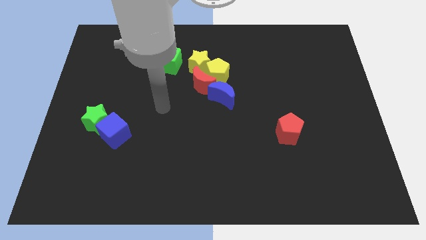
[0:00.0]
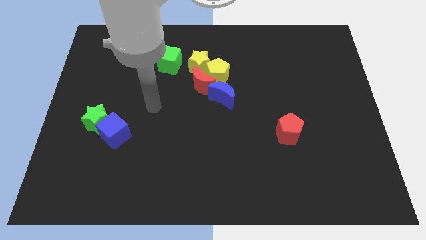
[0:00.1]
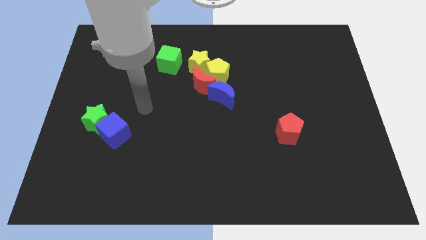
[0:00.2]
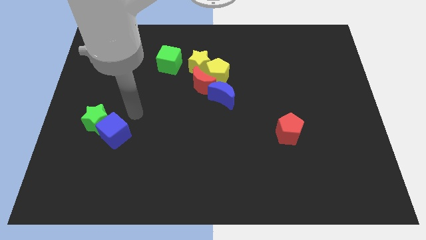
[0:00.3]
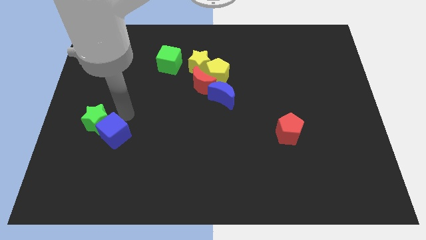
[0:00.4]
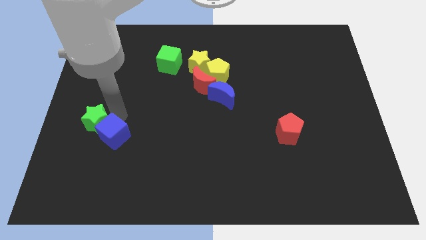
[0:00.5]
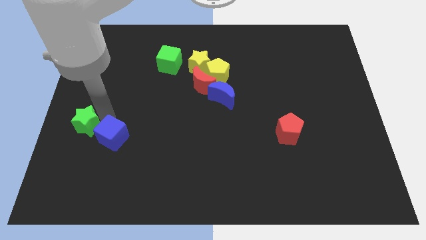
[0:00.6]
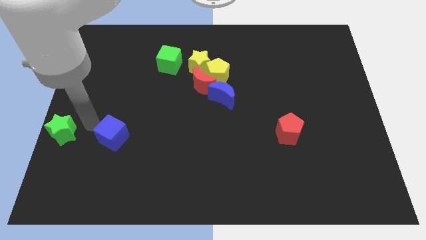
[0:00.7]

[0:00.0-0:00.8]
pull the blue cube apart from the green star

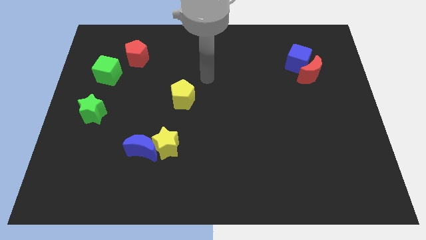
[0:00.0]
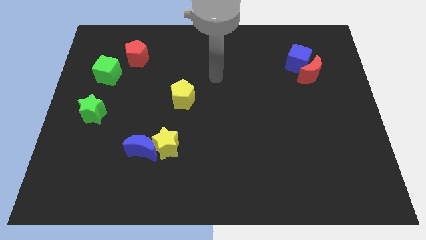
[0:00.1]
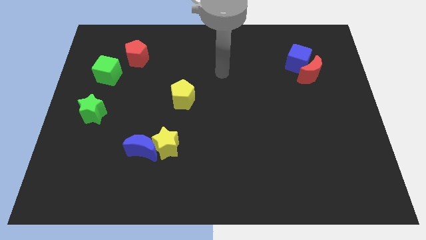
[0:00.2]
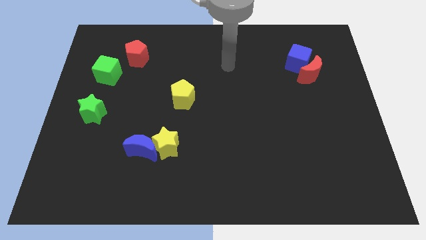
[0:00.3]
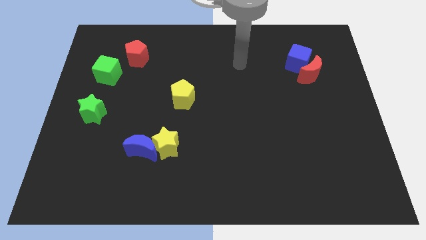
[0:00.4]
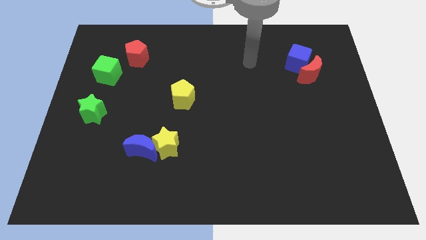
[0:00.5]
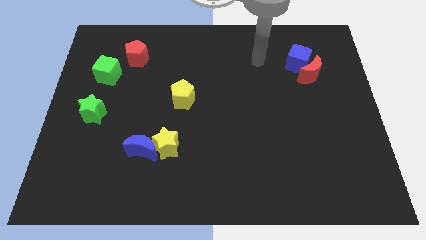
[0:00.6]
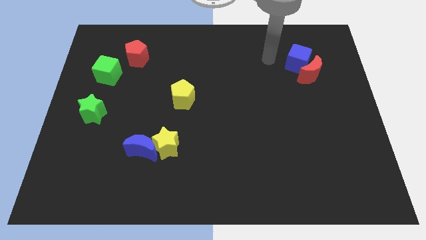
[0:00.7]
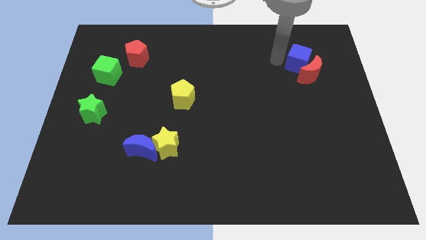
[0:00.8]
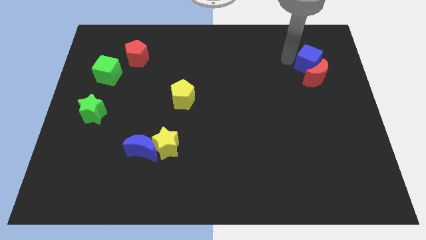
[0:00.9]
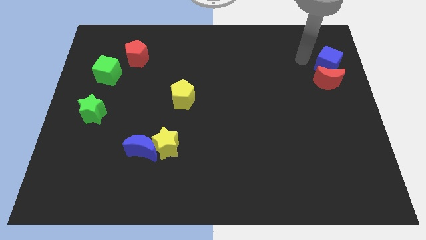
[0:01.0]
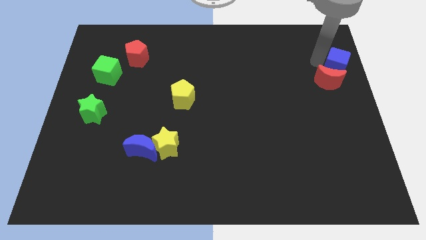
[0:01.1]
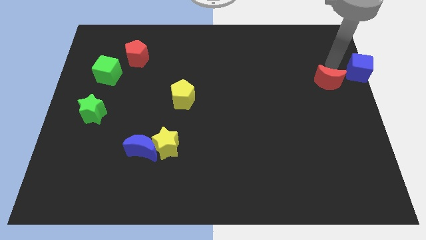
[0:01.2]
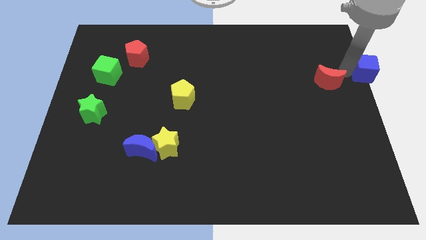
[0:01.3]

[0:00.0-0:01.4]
pull the red moon apart from the blue cube

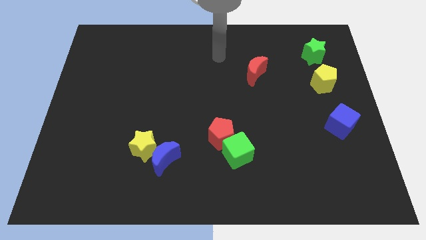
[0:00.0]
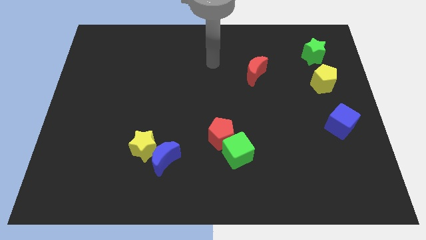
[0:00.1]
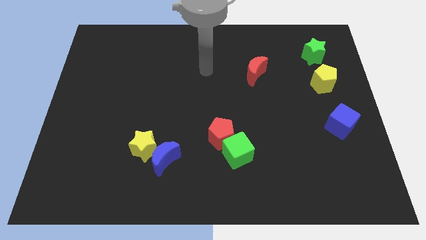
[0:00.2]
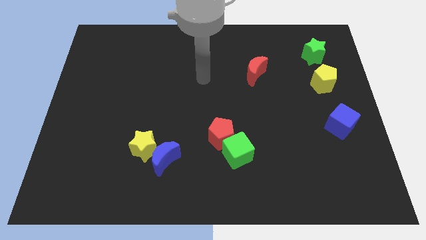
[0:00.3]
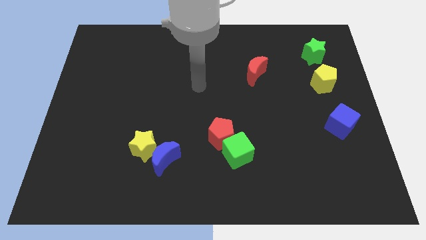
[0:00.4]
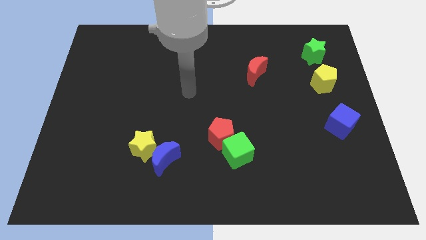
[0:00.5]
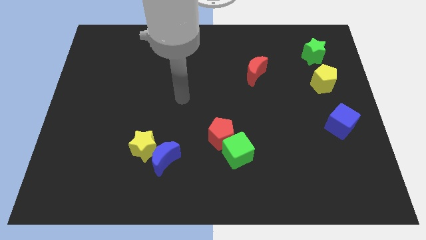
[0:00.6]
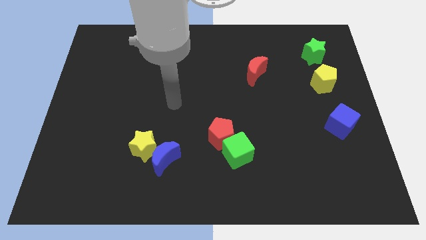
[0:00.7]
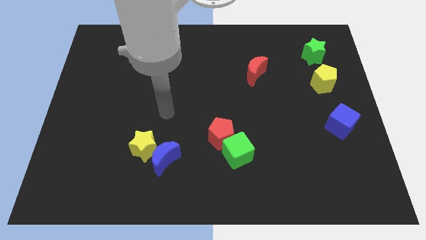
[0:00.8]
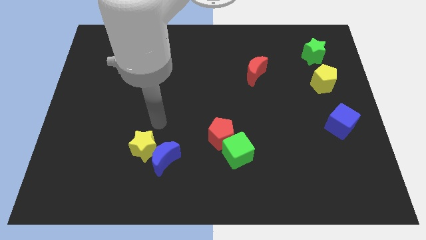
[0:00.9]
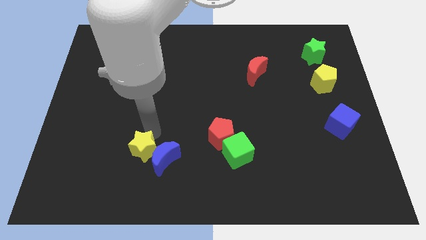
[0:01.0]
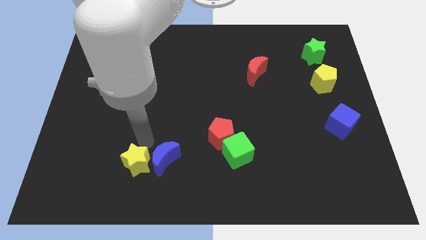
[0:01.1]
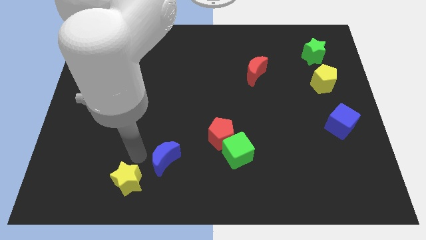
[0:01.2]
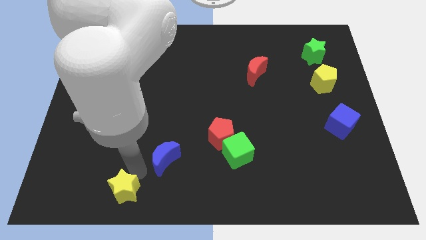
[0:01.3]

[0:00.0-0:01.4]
move the blue moon away from the yellow star

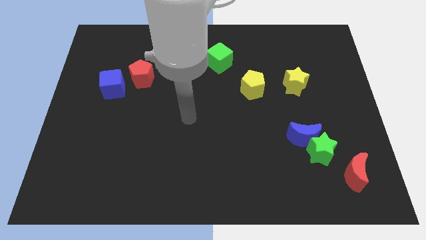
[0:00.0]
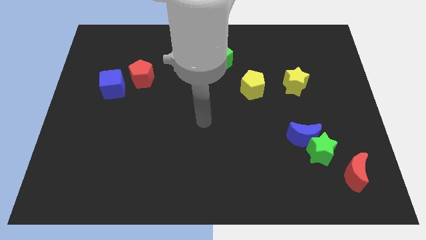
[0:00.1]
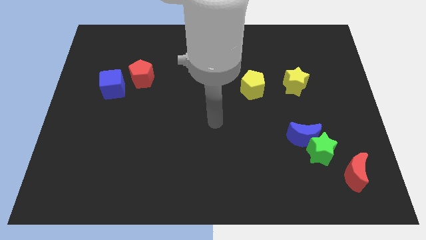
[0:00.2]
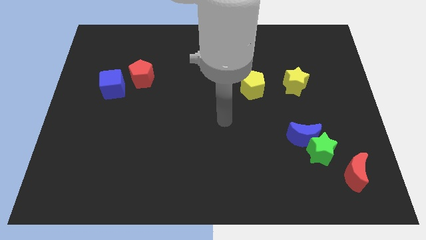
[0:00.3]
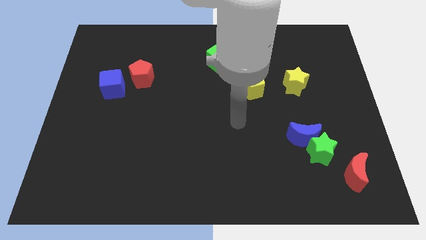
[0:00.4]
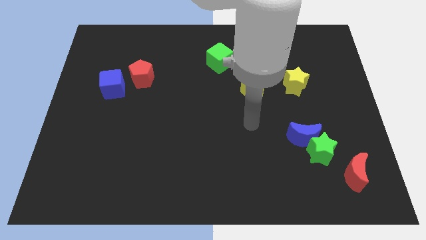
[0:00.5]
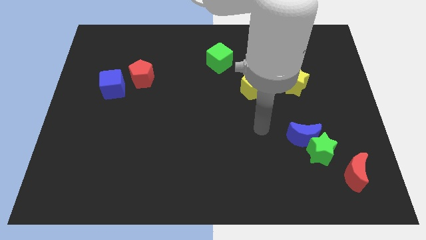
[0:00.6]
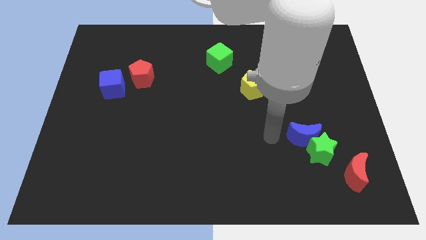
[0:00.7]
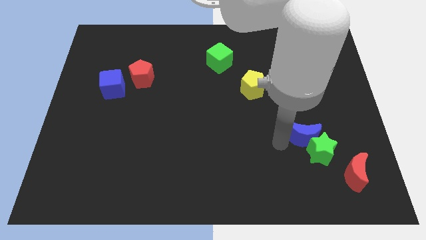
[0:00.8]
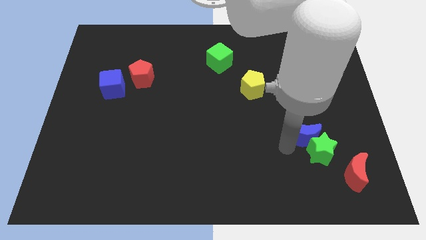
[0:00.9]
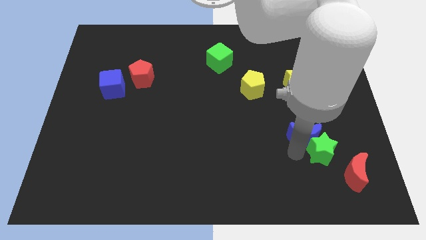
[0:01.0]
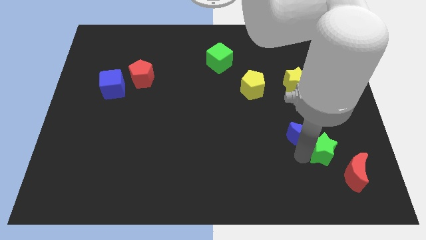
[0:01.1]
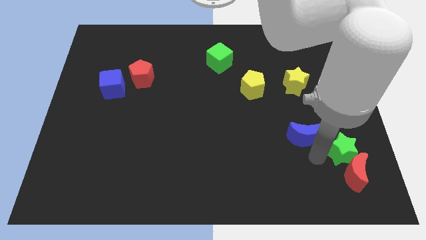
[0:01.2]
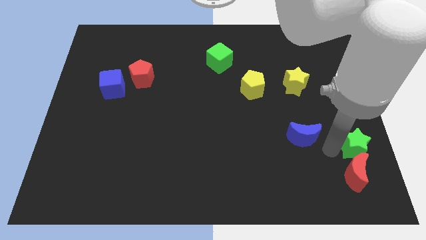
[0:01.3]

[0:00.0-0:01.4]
pull the blue moon apart from the green star

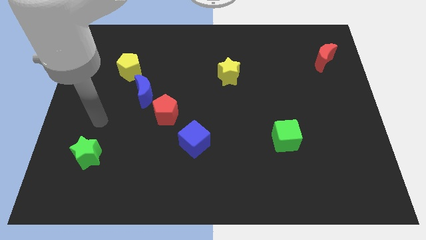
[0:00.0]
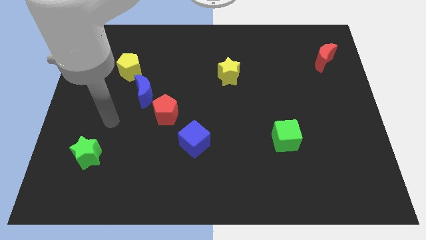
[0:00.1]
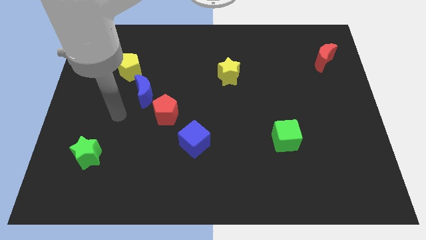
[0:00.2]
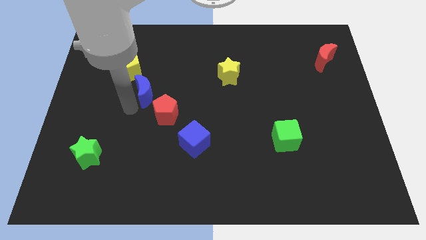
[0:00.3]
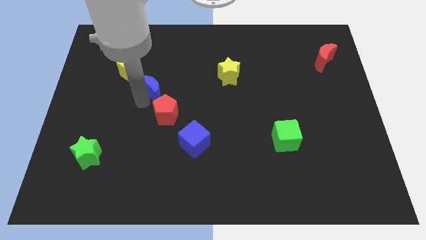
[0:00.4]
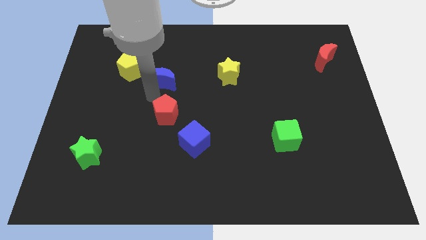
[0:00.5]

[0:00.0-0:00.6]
pull the red pentagon apart from the blue moon

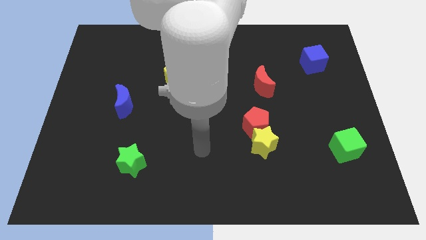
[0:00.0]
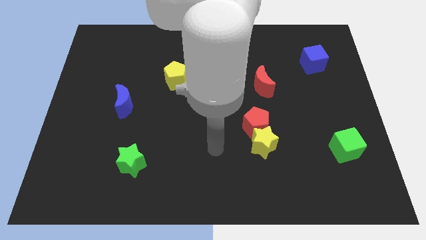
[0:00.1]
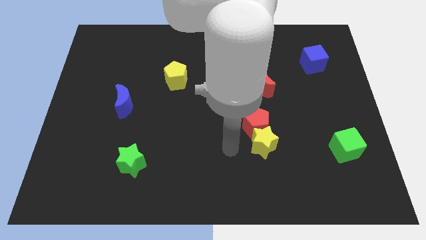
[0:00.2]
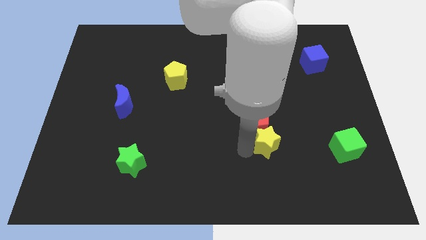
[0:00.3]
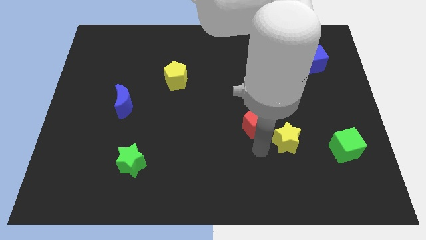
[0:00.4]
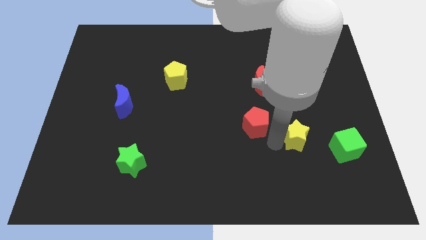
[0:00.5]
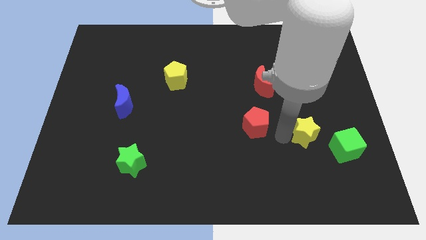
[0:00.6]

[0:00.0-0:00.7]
move the red pentagon away from the yellow star

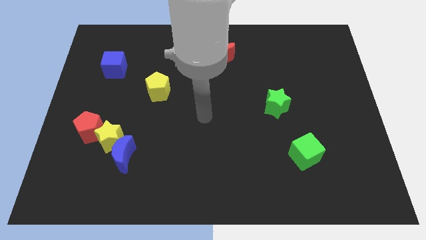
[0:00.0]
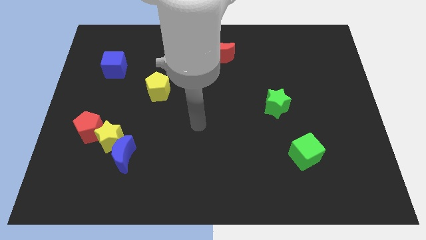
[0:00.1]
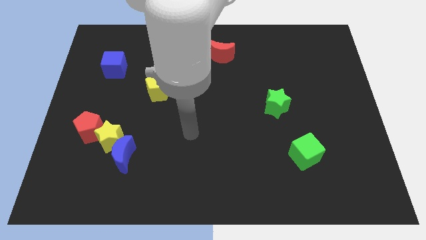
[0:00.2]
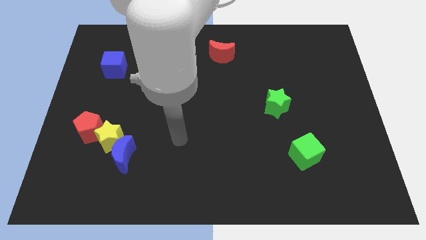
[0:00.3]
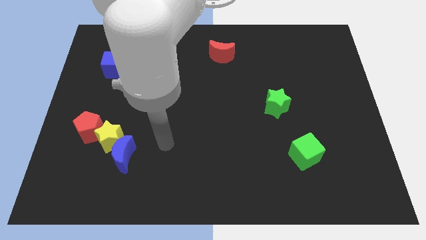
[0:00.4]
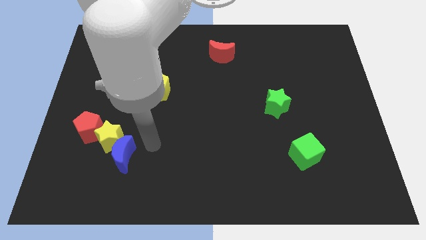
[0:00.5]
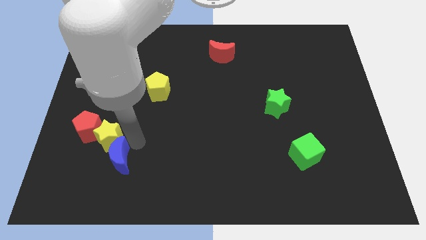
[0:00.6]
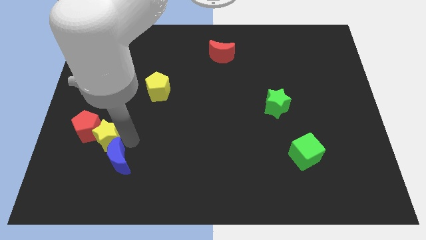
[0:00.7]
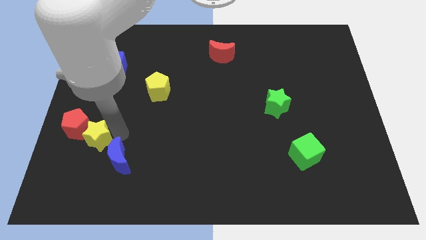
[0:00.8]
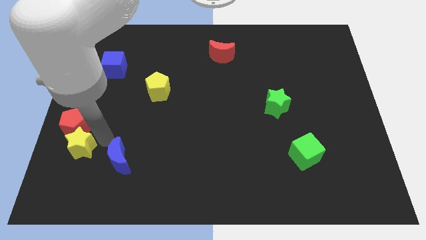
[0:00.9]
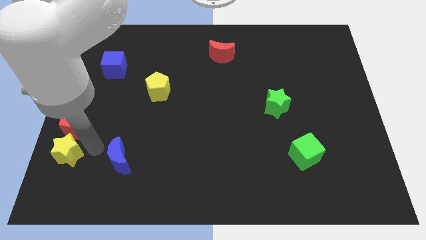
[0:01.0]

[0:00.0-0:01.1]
pull the blue moon apart from the yellow star

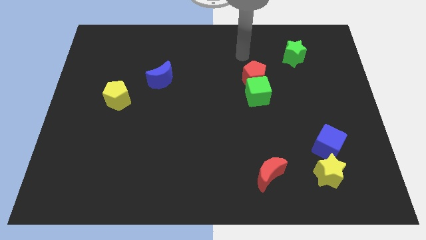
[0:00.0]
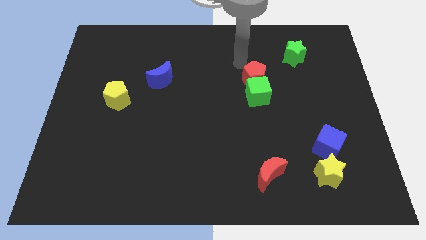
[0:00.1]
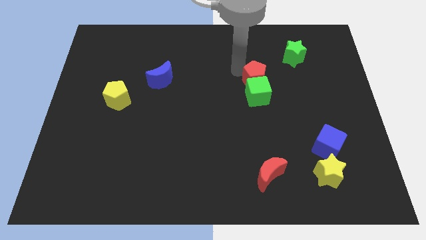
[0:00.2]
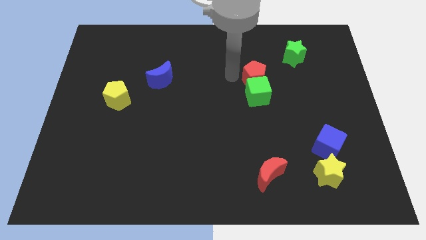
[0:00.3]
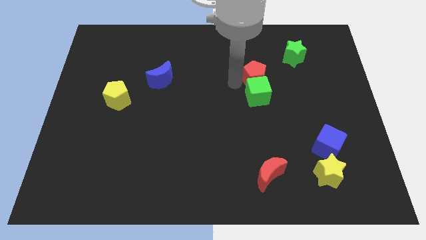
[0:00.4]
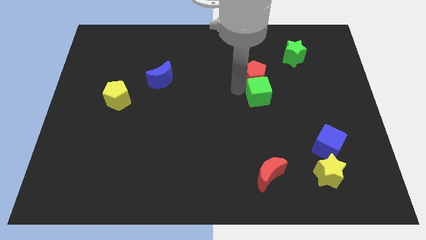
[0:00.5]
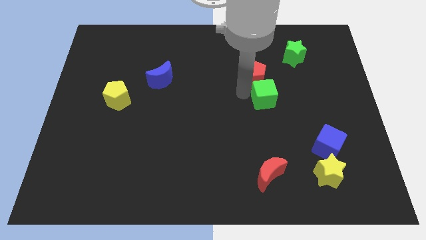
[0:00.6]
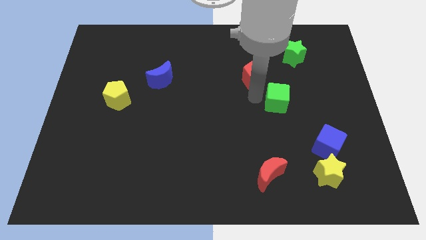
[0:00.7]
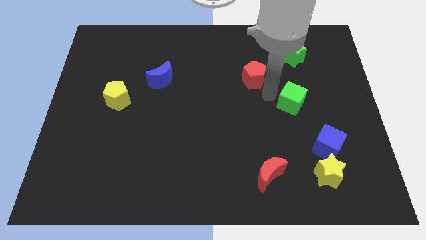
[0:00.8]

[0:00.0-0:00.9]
separate the red pentagon from the green cube

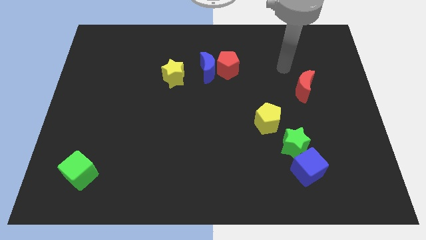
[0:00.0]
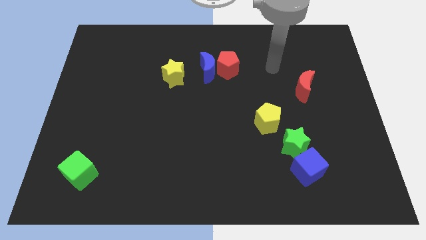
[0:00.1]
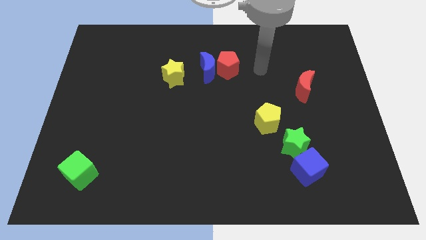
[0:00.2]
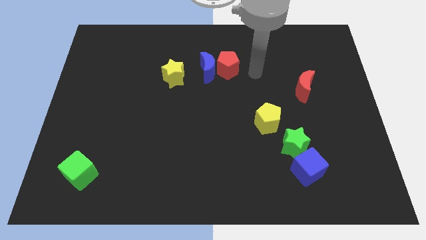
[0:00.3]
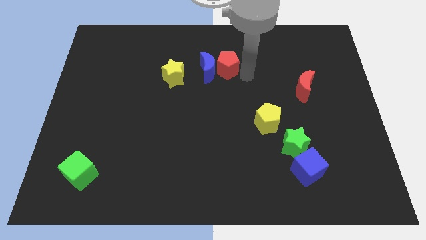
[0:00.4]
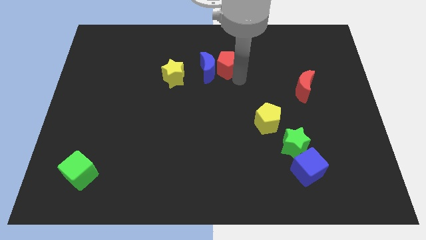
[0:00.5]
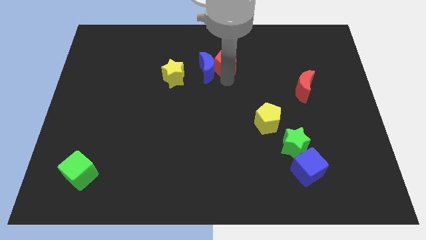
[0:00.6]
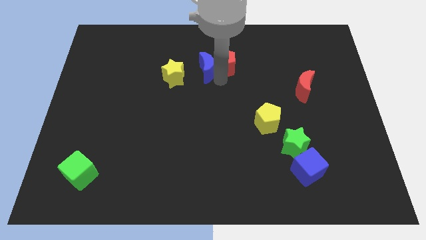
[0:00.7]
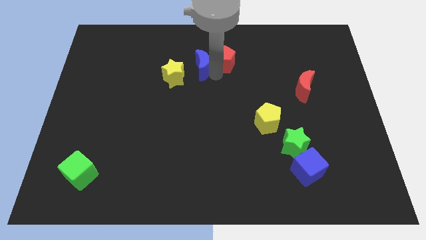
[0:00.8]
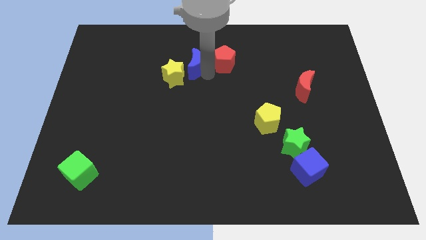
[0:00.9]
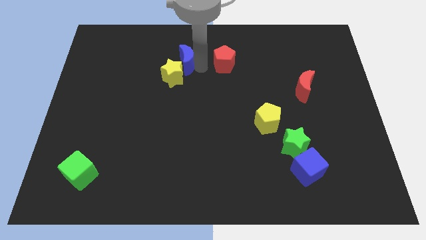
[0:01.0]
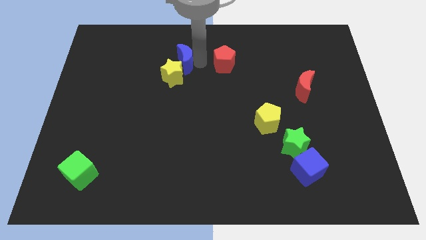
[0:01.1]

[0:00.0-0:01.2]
move the red pentagon away from the blue moon
